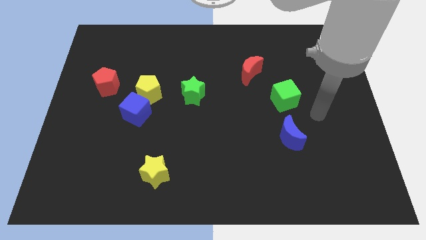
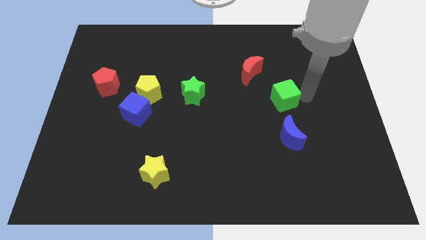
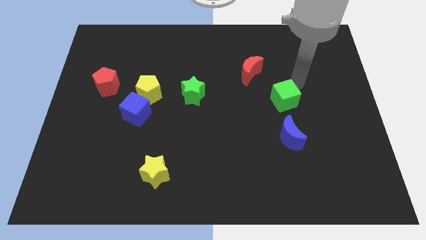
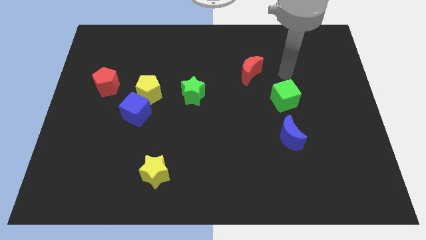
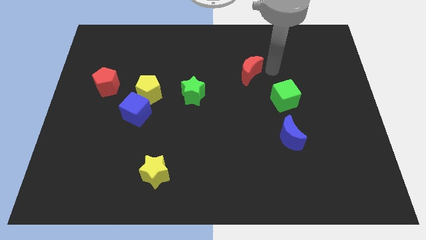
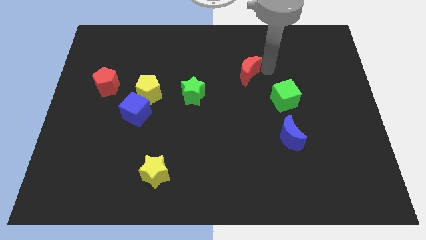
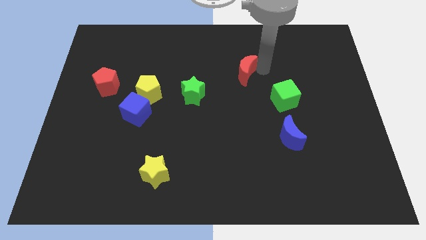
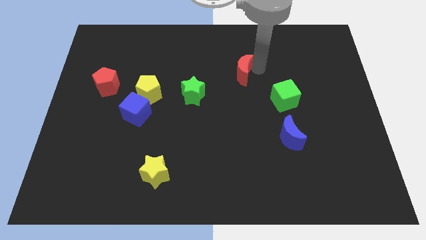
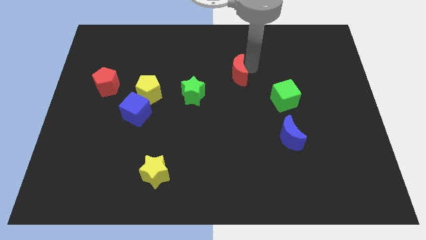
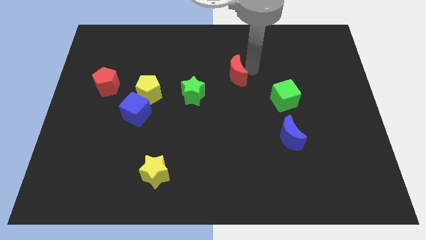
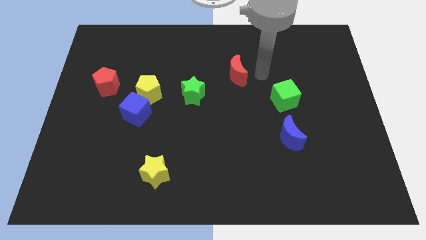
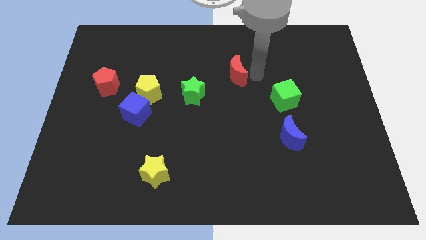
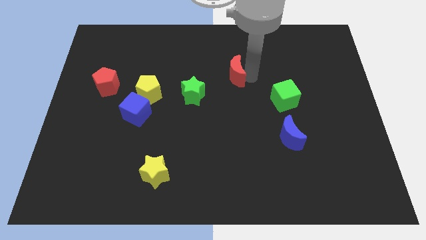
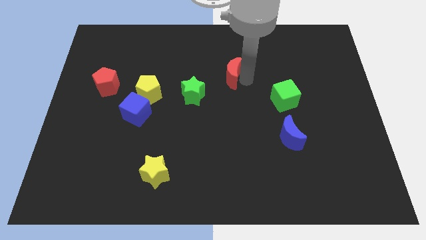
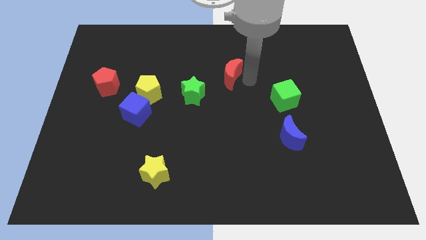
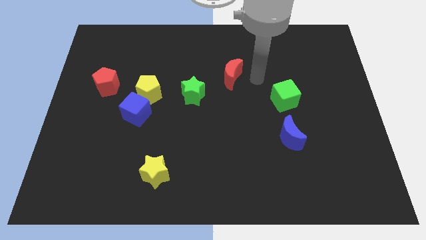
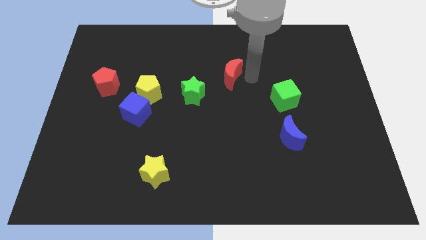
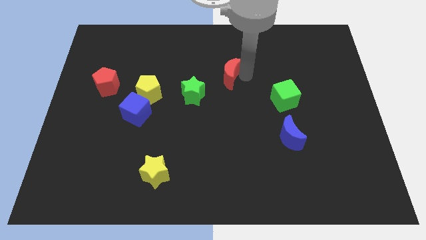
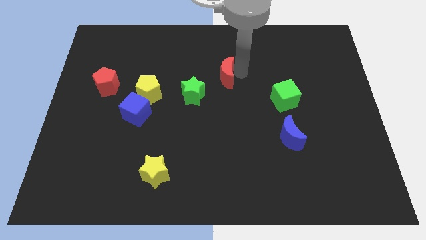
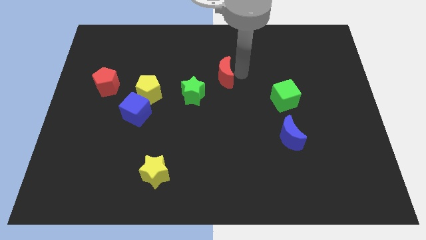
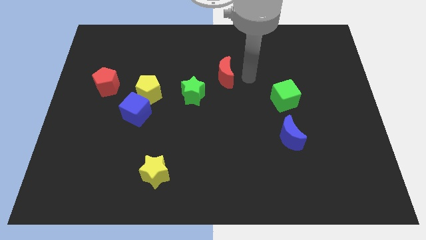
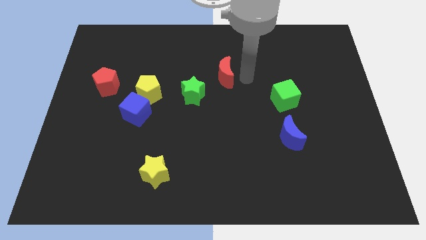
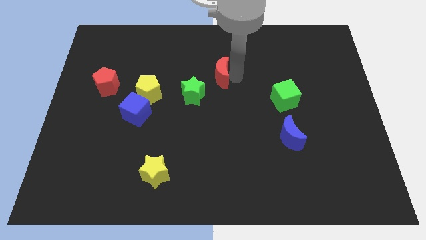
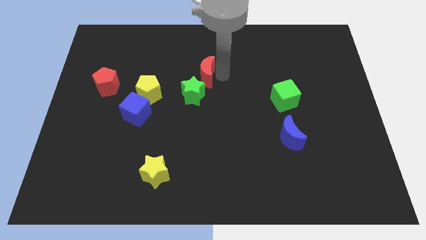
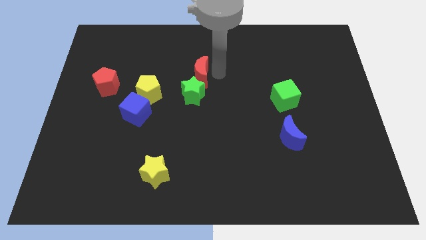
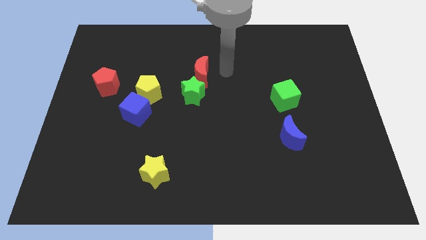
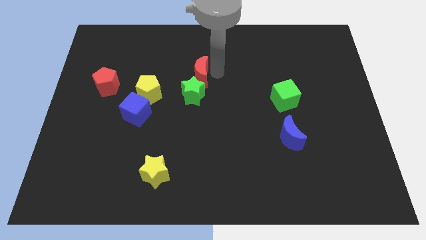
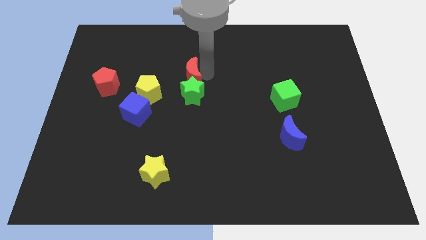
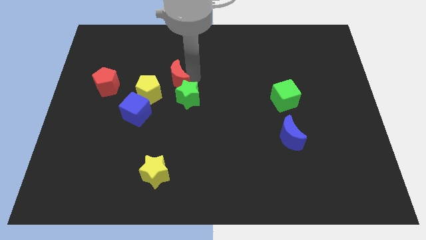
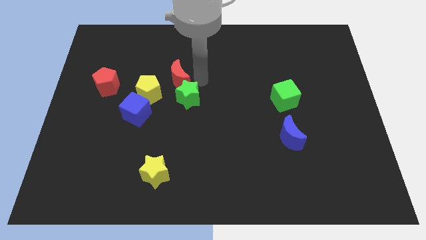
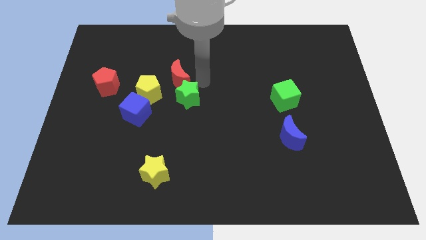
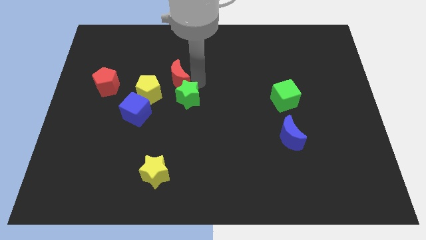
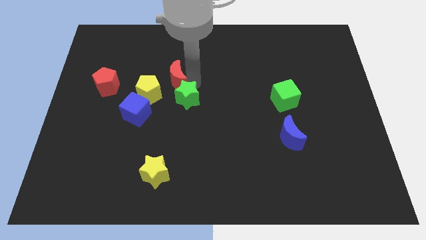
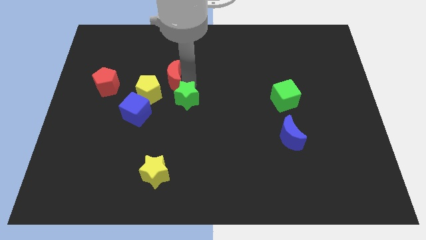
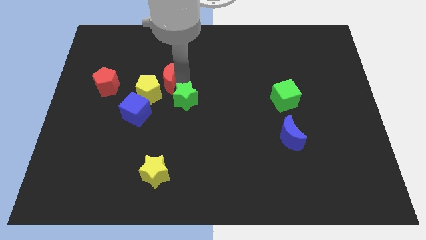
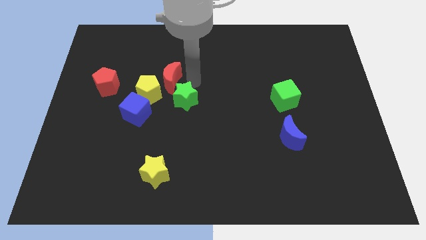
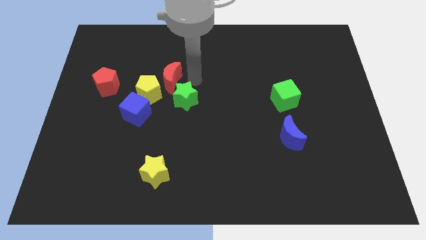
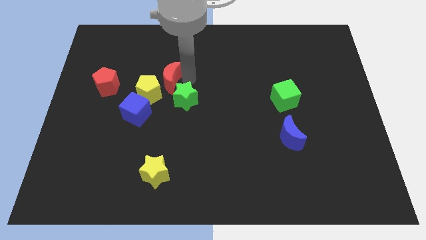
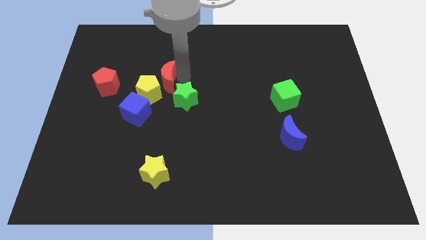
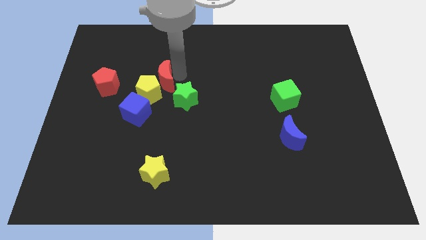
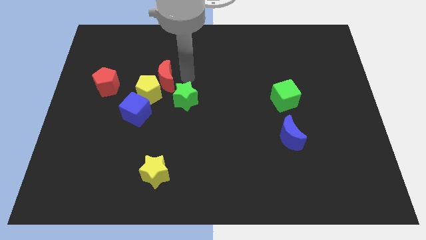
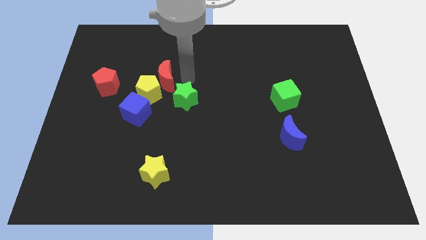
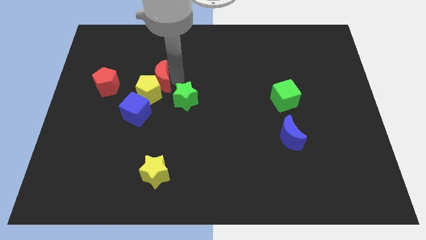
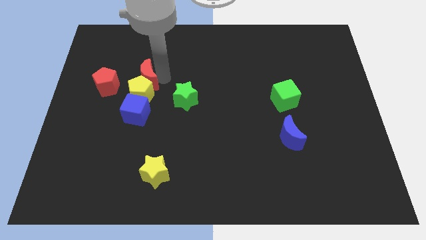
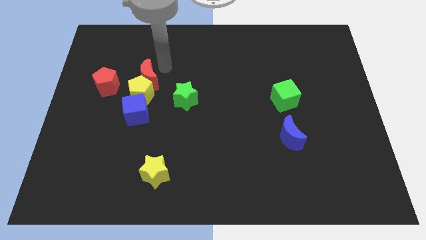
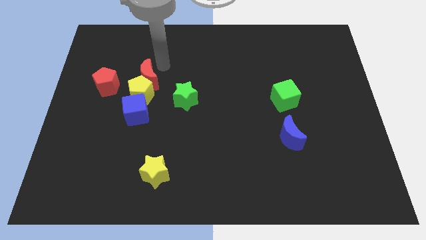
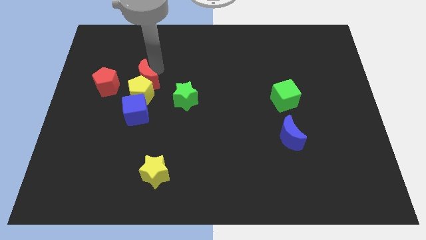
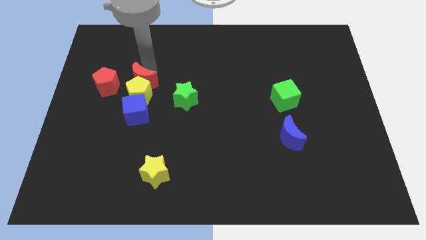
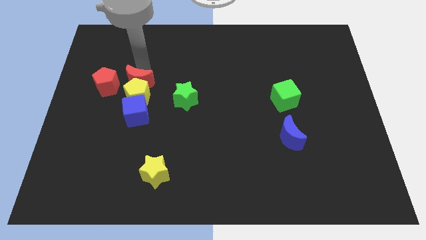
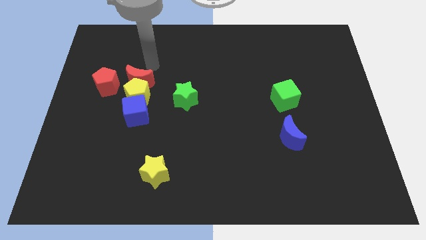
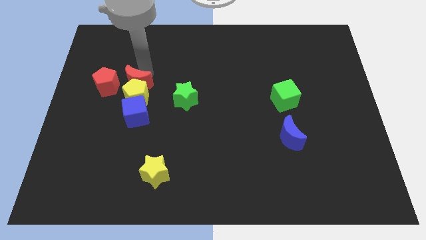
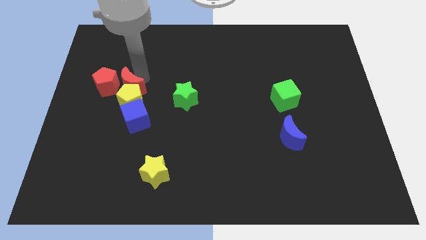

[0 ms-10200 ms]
move the red moon to the bottom right side of the red pentagon

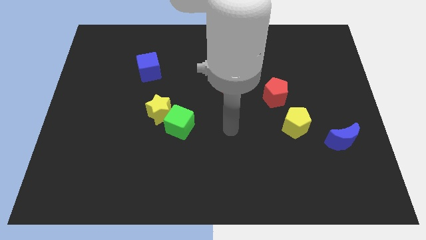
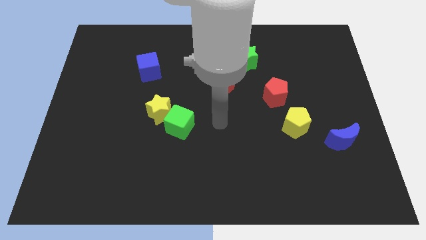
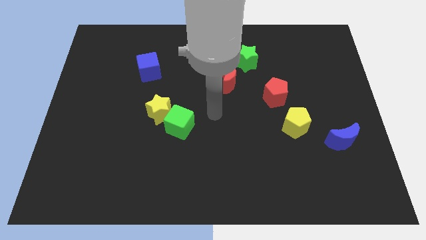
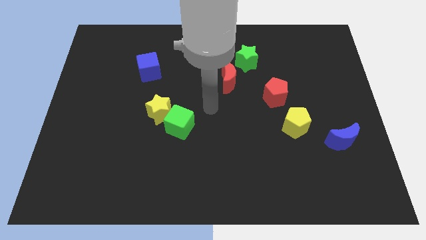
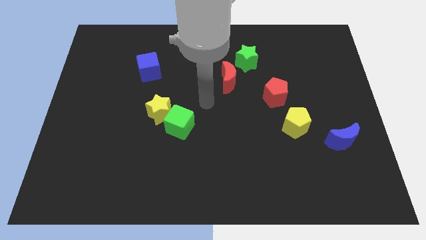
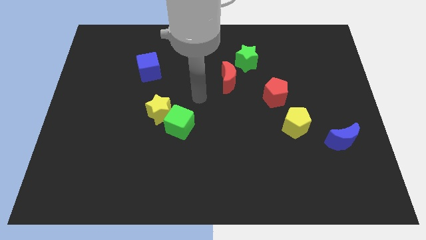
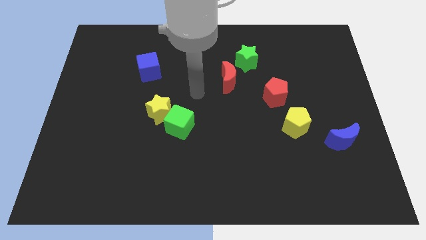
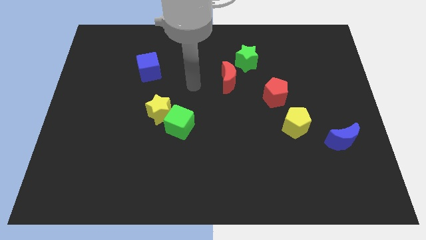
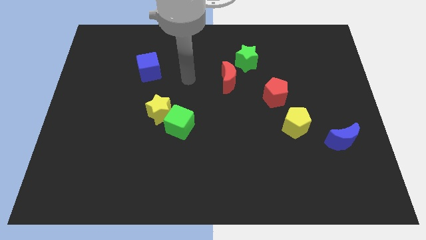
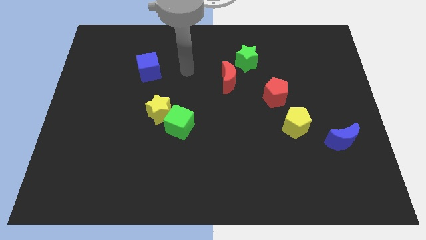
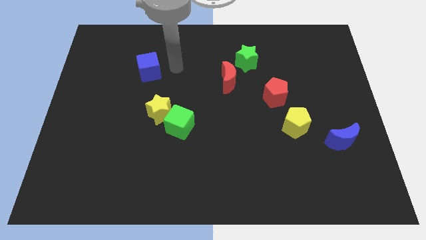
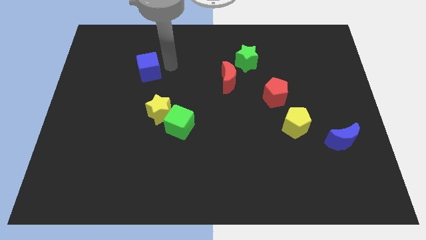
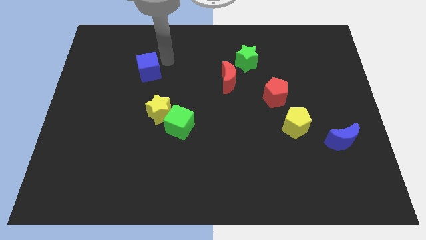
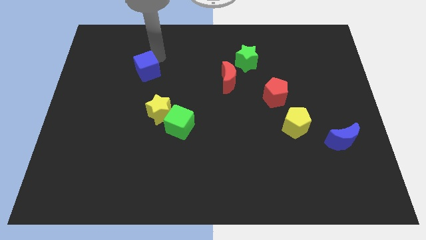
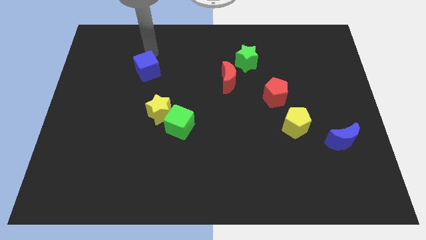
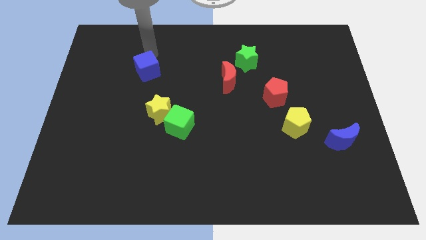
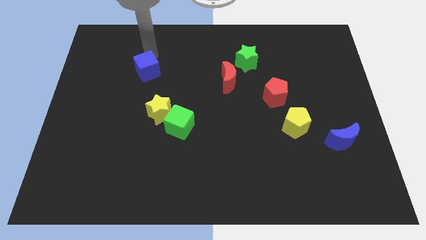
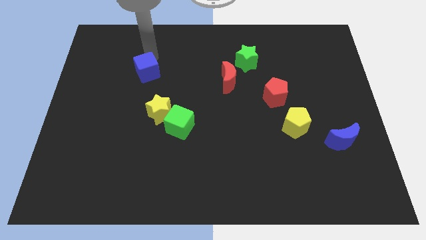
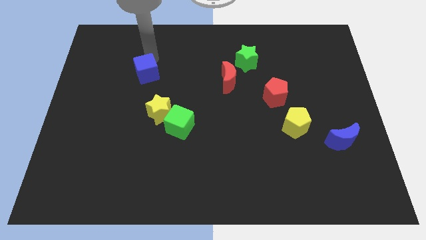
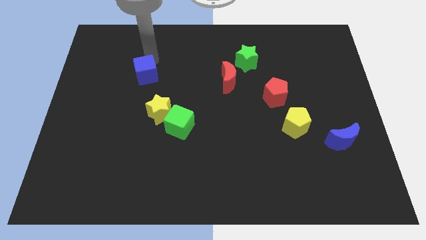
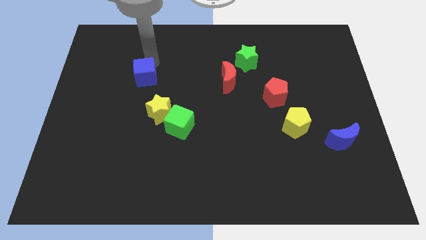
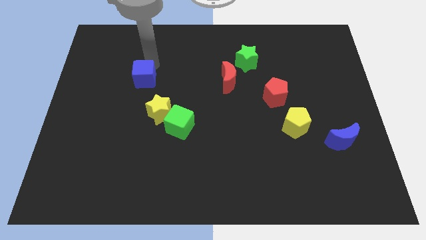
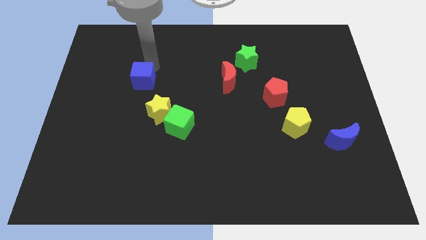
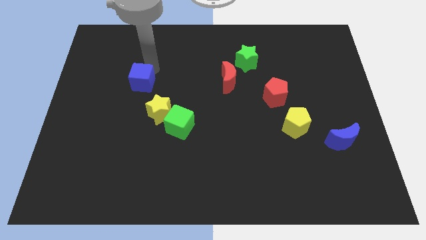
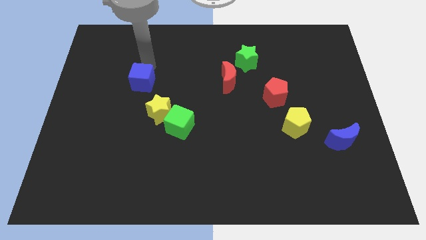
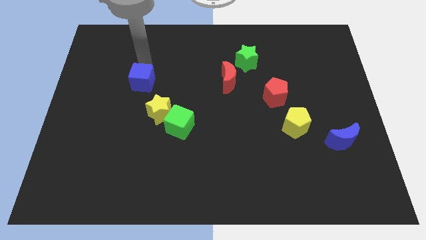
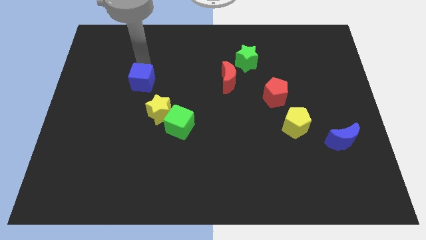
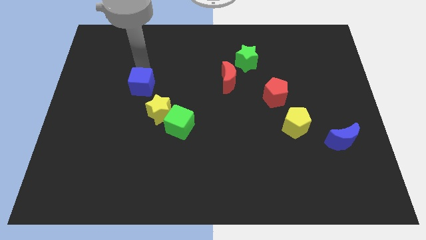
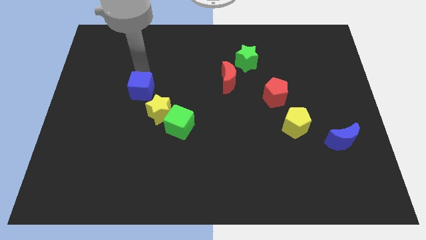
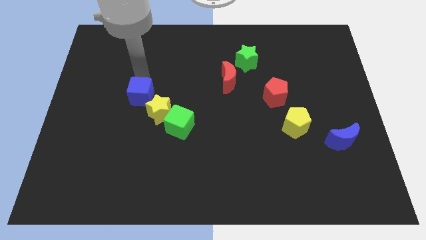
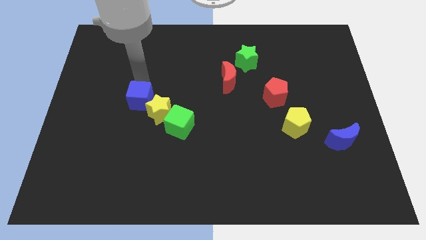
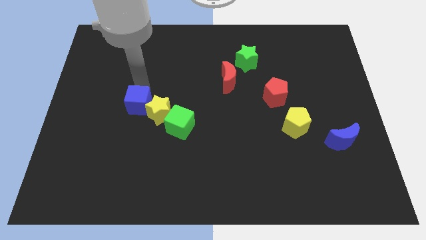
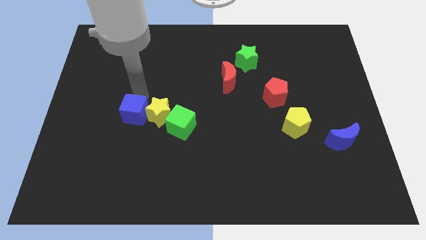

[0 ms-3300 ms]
slide the blue cube diagonally down and to the left of the yellow star
